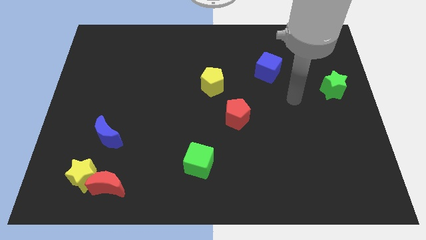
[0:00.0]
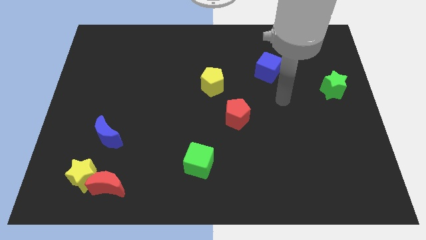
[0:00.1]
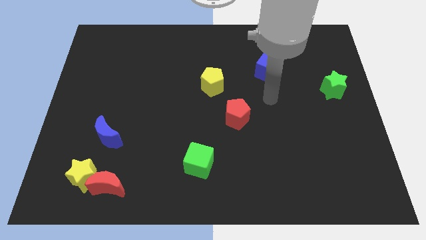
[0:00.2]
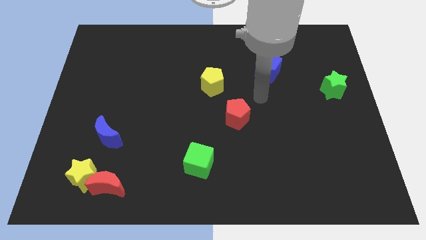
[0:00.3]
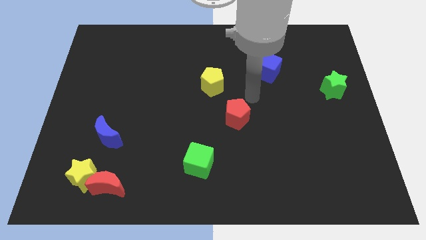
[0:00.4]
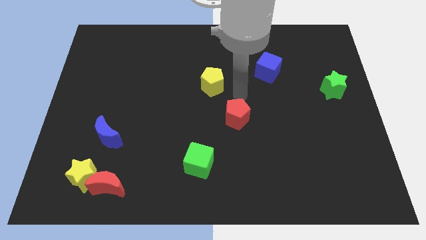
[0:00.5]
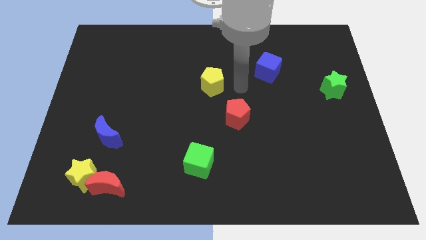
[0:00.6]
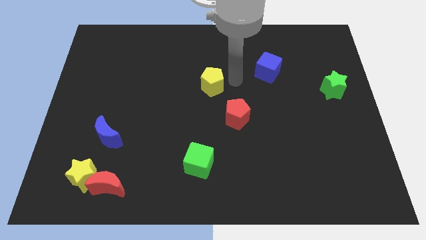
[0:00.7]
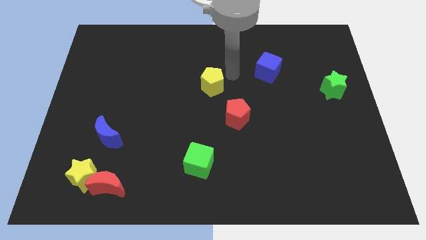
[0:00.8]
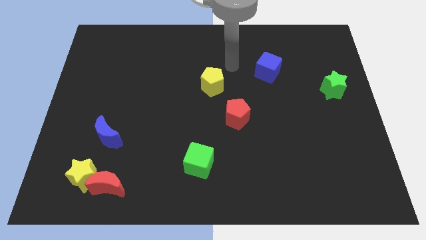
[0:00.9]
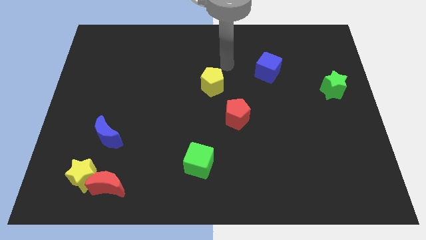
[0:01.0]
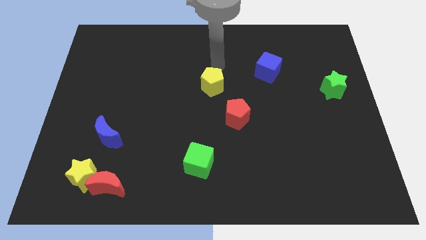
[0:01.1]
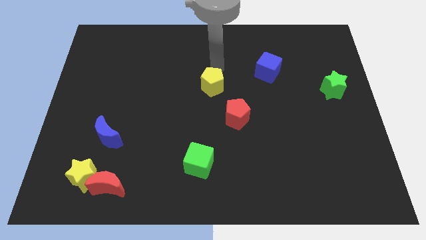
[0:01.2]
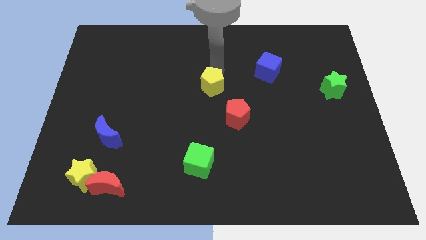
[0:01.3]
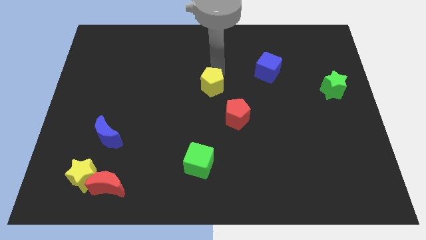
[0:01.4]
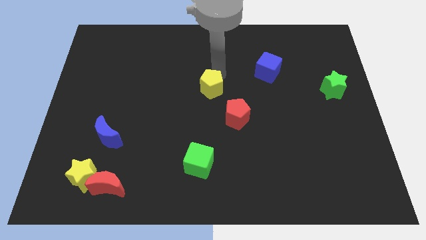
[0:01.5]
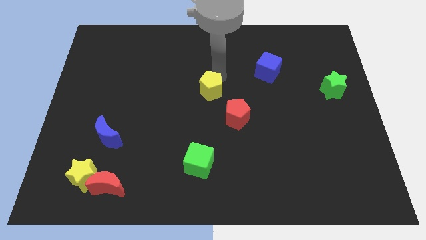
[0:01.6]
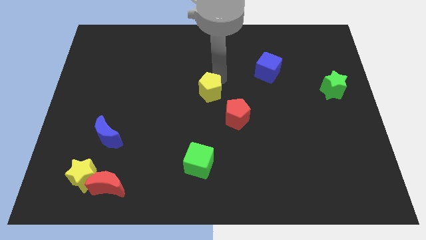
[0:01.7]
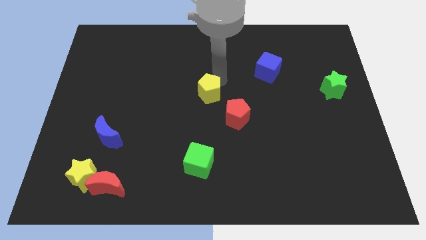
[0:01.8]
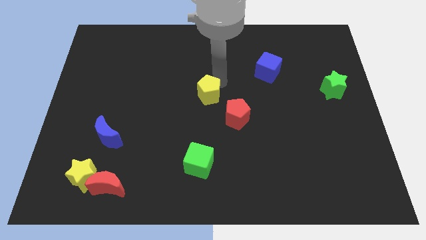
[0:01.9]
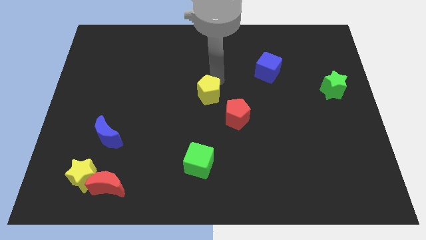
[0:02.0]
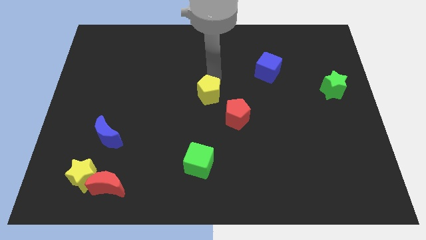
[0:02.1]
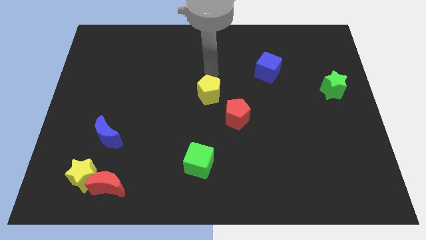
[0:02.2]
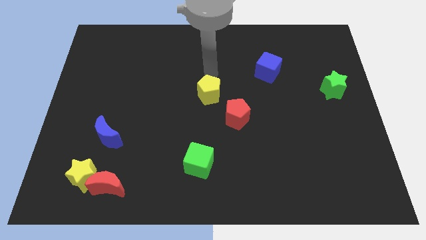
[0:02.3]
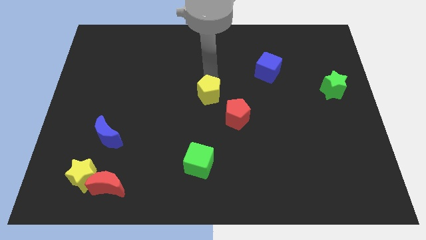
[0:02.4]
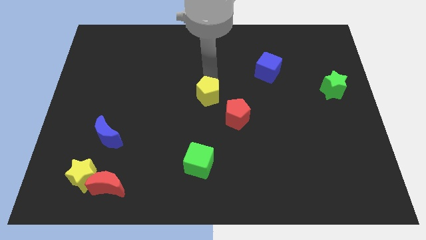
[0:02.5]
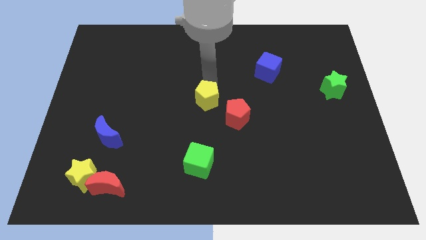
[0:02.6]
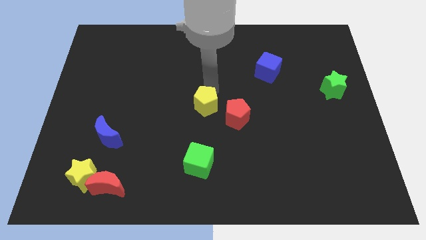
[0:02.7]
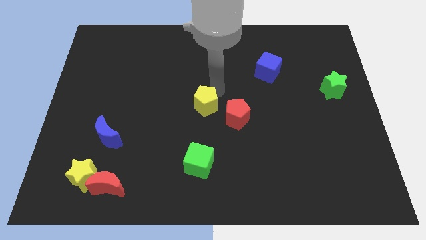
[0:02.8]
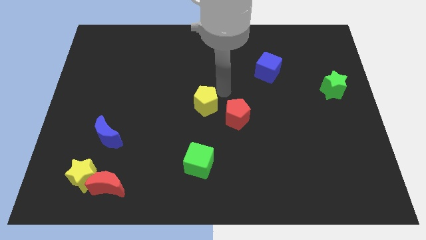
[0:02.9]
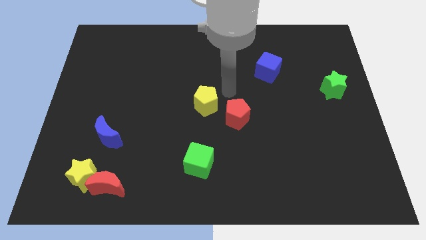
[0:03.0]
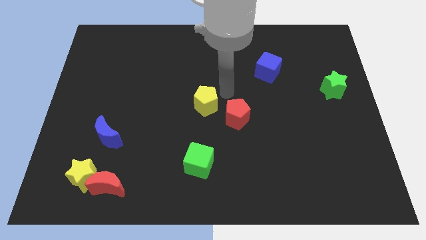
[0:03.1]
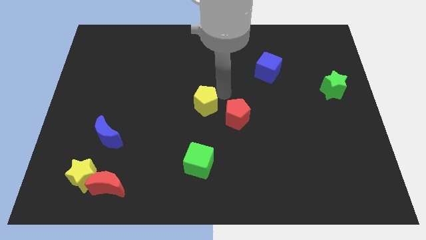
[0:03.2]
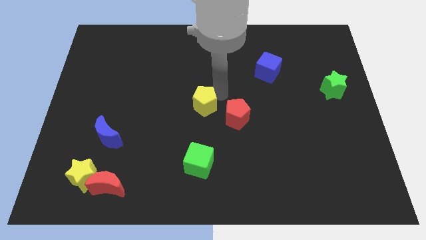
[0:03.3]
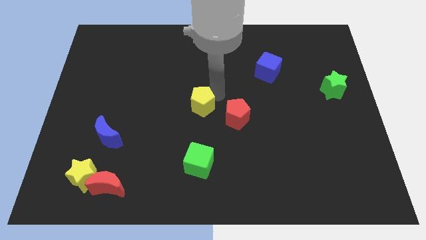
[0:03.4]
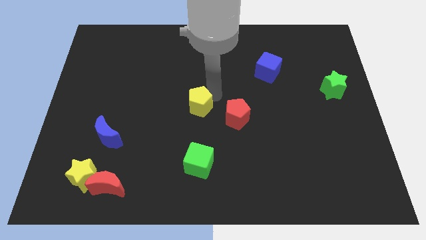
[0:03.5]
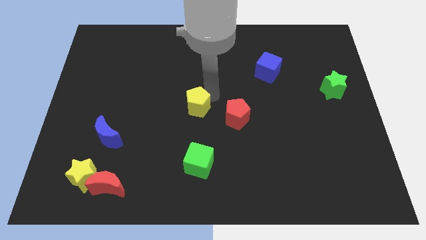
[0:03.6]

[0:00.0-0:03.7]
slightly slide the yellow pentagon downwards and to the left diagonally

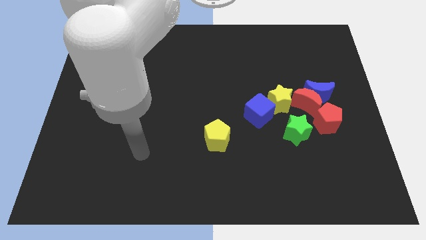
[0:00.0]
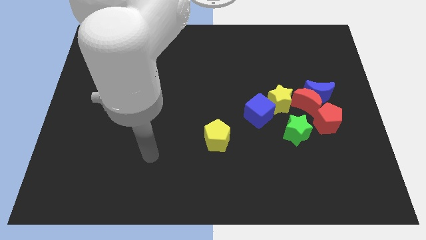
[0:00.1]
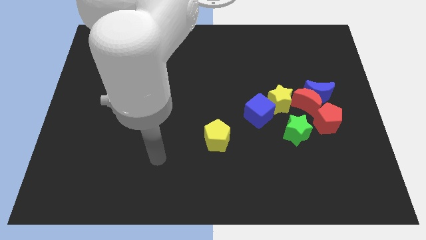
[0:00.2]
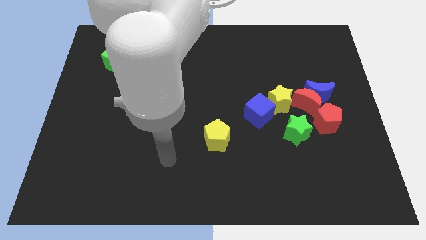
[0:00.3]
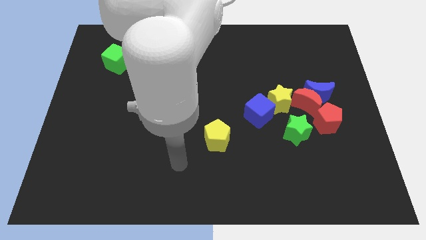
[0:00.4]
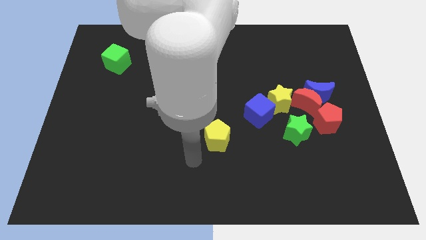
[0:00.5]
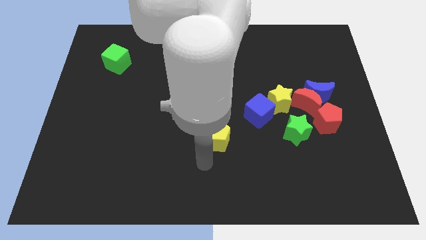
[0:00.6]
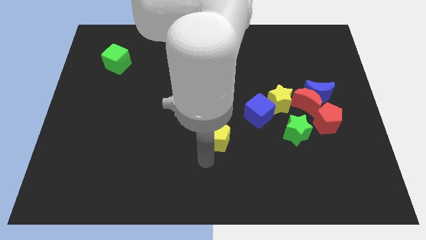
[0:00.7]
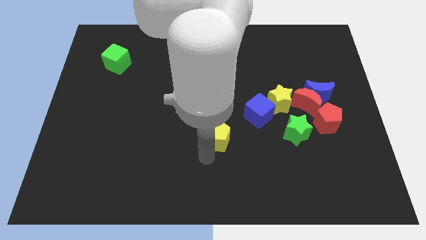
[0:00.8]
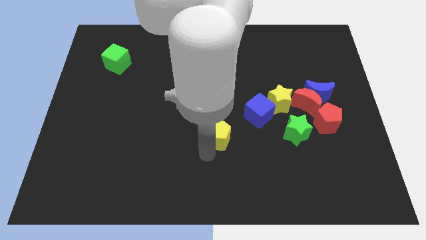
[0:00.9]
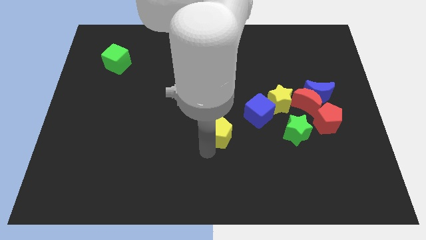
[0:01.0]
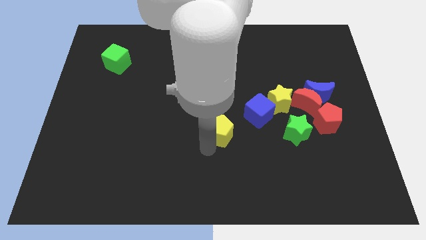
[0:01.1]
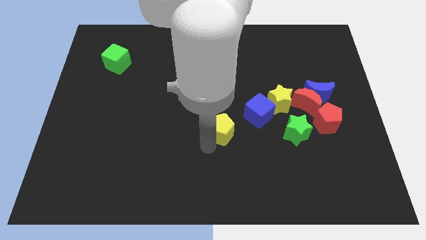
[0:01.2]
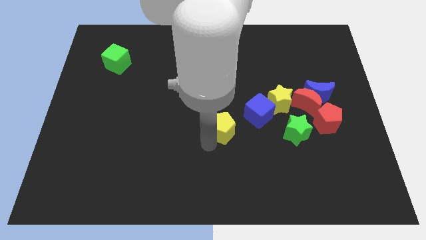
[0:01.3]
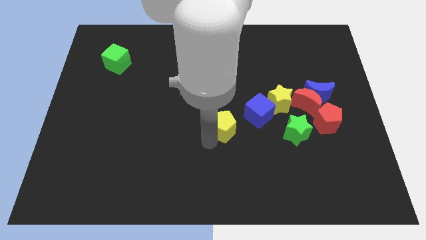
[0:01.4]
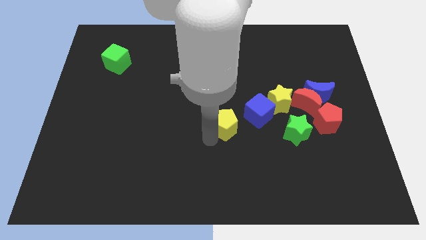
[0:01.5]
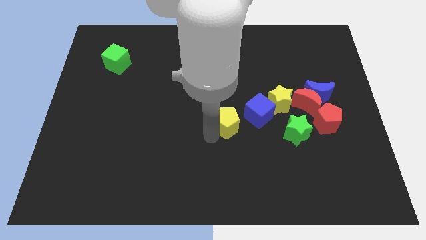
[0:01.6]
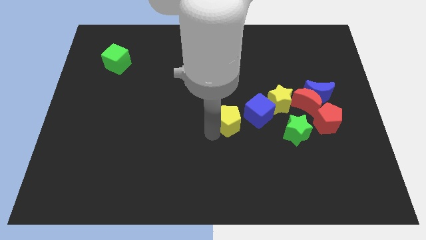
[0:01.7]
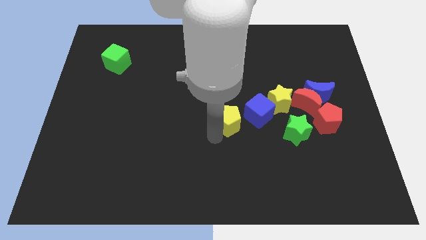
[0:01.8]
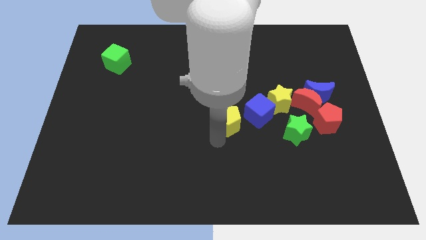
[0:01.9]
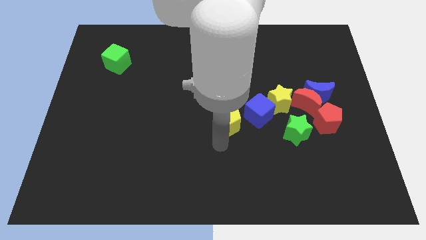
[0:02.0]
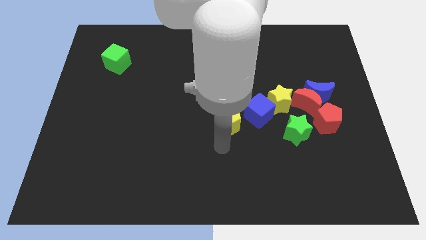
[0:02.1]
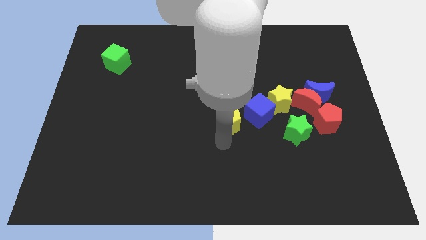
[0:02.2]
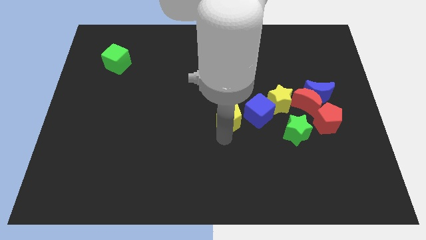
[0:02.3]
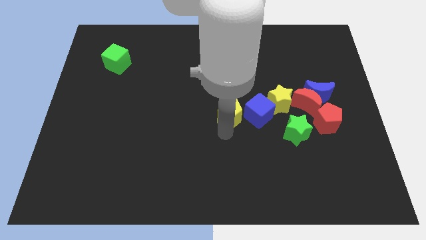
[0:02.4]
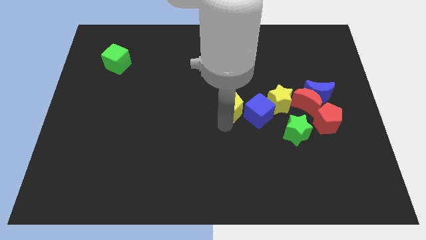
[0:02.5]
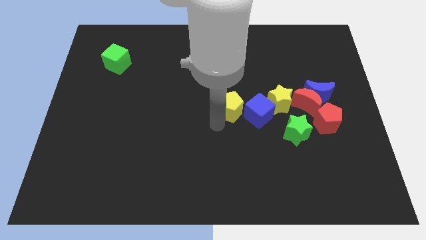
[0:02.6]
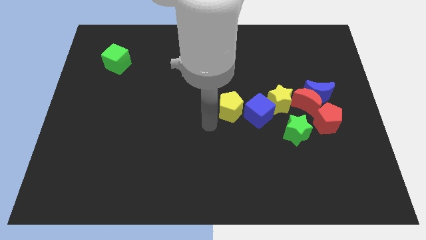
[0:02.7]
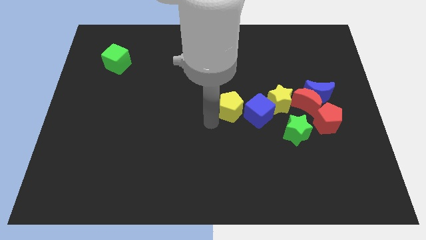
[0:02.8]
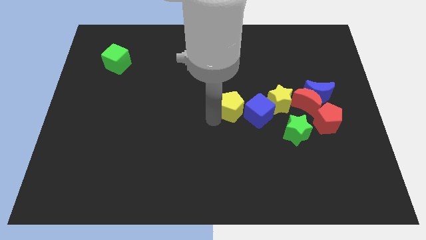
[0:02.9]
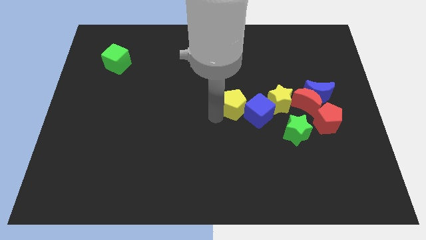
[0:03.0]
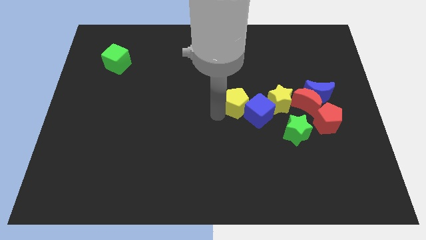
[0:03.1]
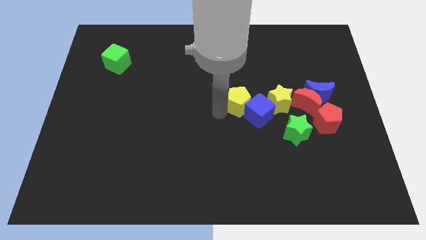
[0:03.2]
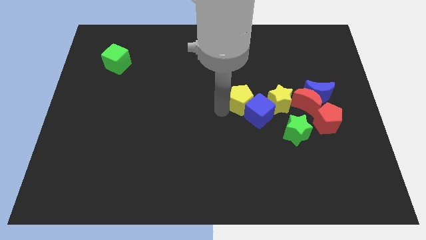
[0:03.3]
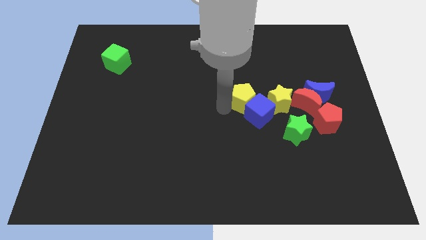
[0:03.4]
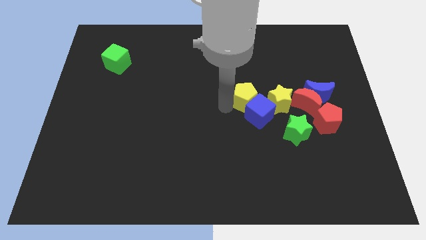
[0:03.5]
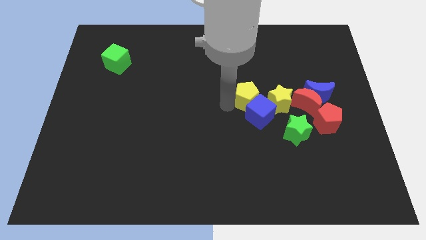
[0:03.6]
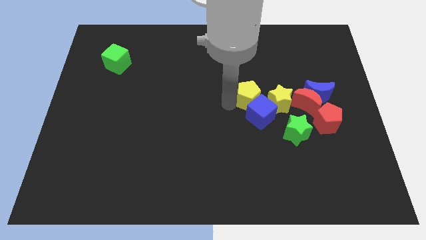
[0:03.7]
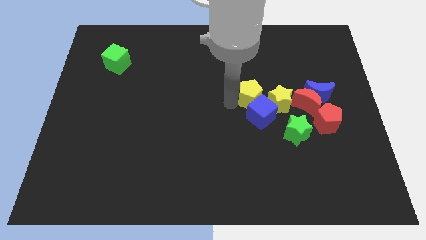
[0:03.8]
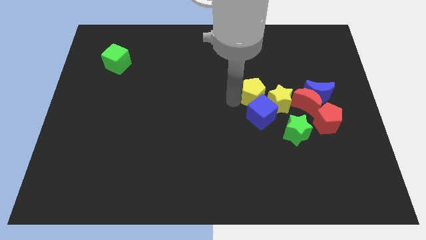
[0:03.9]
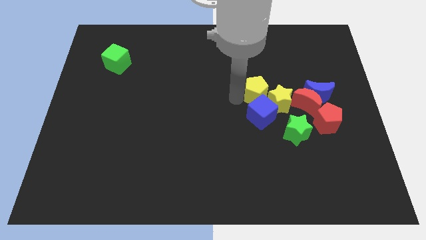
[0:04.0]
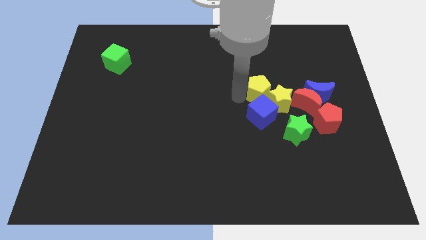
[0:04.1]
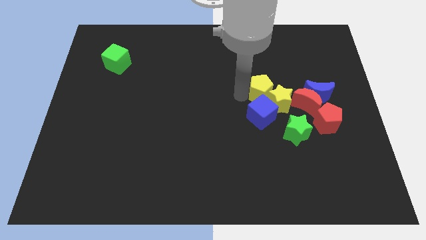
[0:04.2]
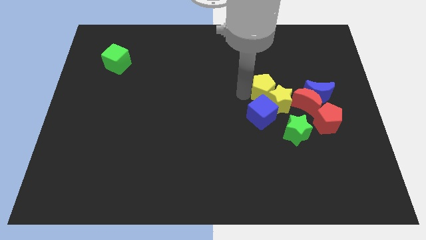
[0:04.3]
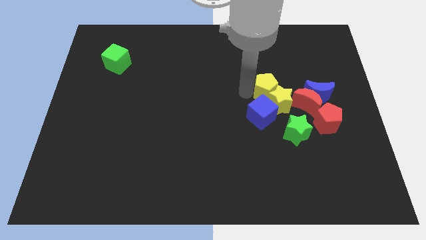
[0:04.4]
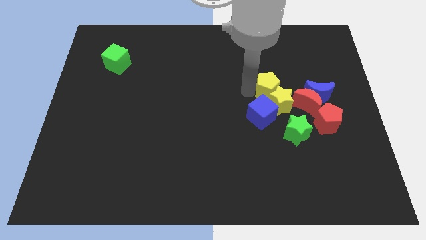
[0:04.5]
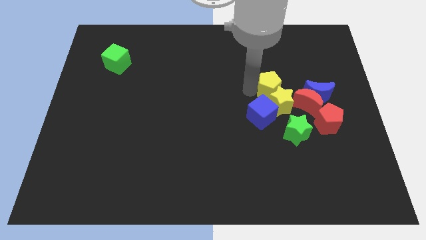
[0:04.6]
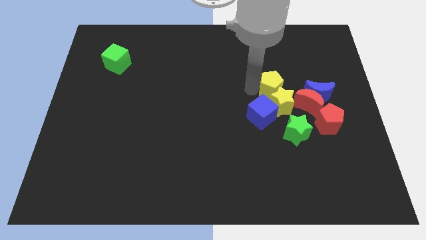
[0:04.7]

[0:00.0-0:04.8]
push the yellow pentagon diagonally upwards and to the right
